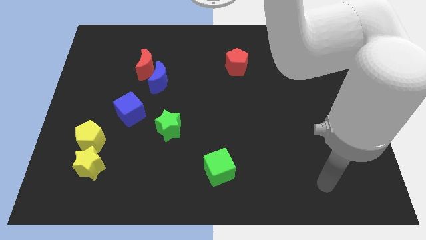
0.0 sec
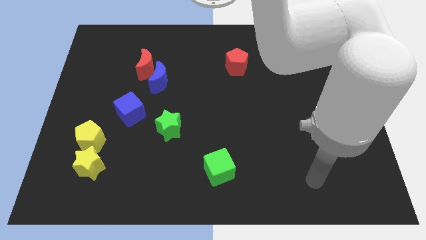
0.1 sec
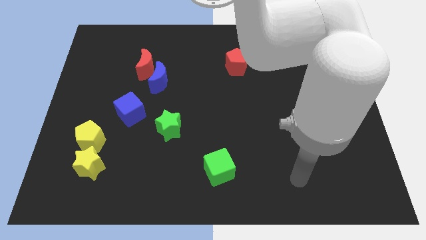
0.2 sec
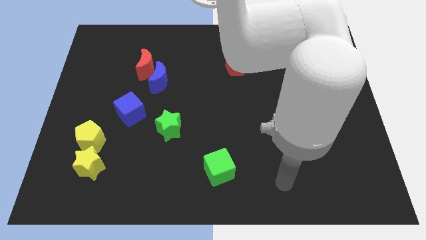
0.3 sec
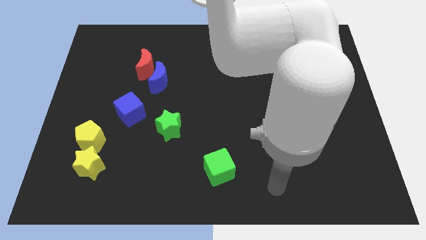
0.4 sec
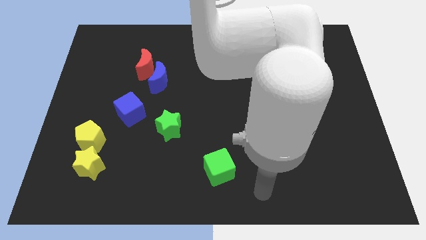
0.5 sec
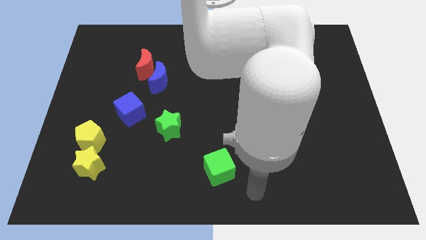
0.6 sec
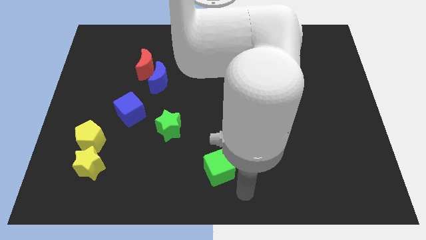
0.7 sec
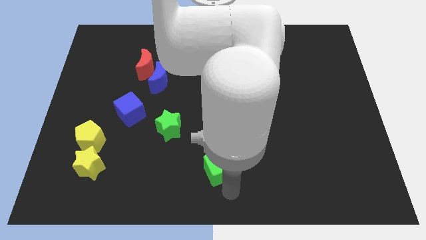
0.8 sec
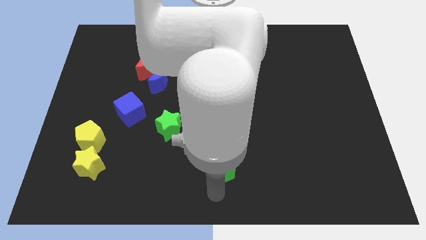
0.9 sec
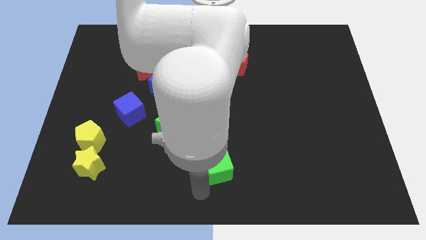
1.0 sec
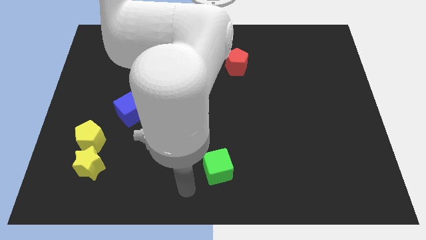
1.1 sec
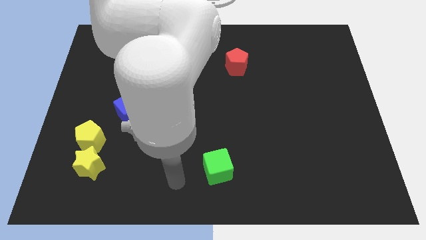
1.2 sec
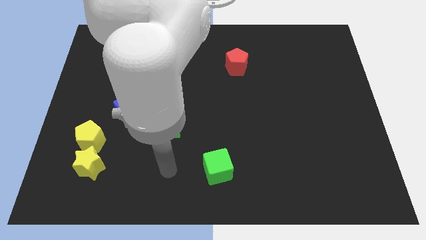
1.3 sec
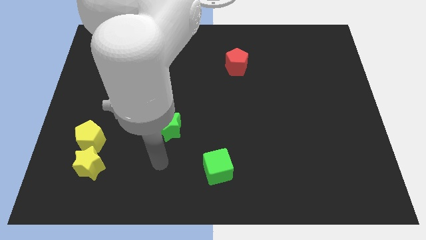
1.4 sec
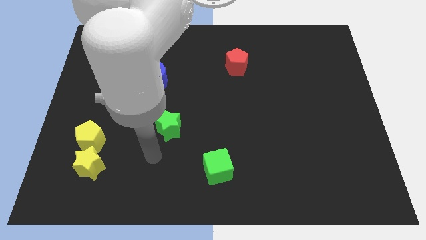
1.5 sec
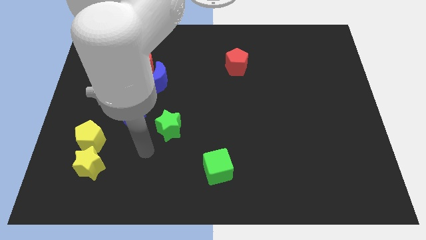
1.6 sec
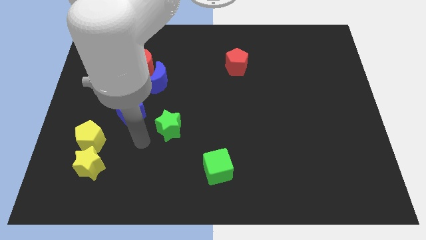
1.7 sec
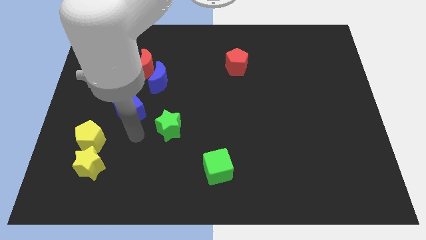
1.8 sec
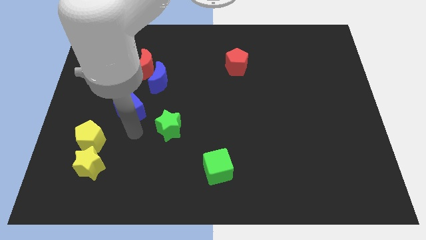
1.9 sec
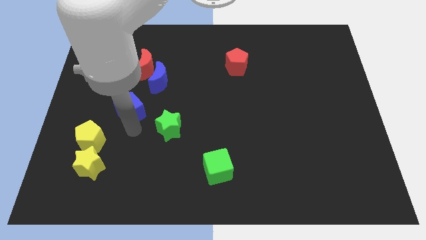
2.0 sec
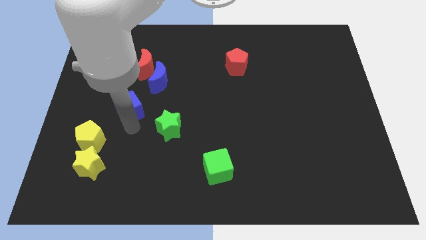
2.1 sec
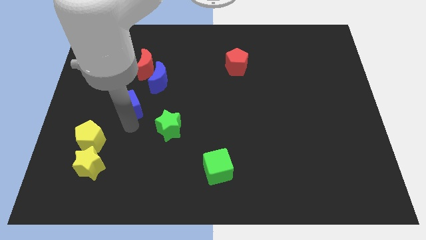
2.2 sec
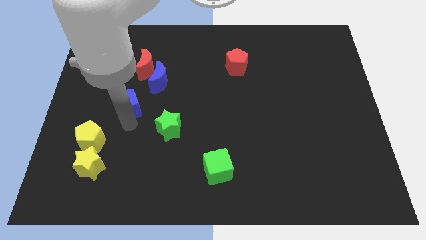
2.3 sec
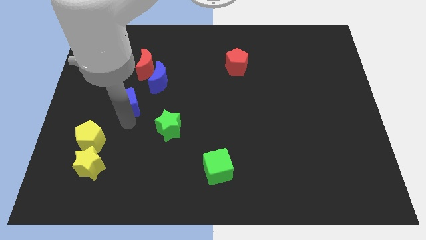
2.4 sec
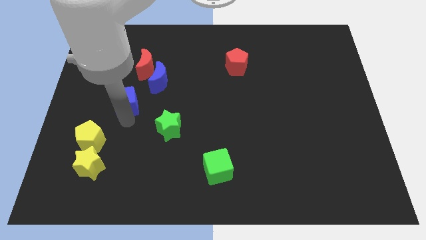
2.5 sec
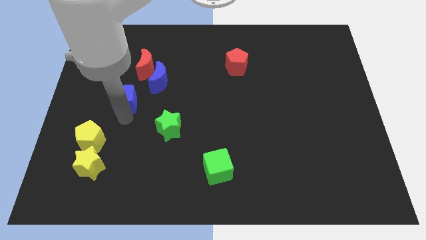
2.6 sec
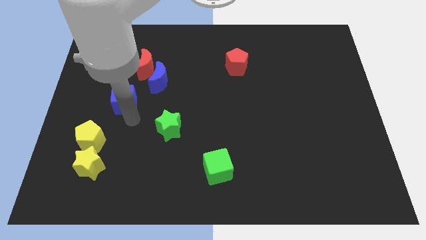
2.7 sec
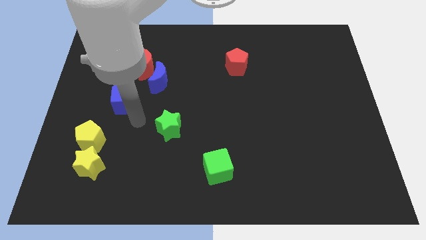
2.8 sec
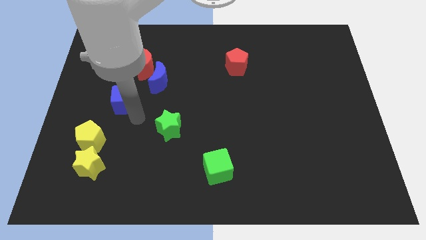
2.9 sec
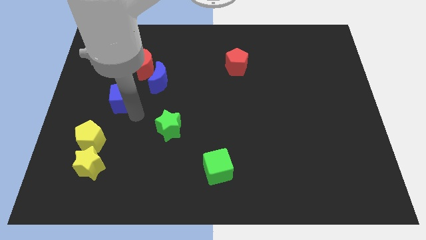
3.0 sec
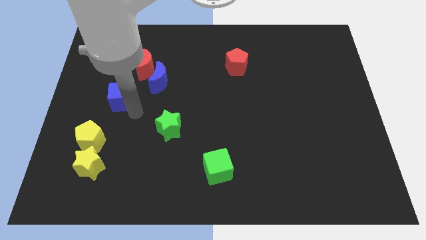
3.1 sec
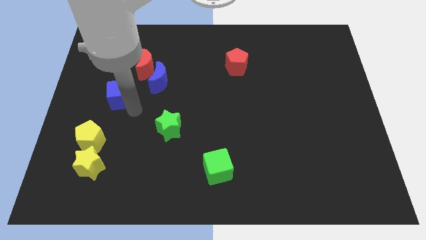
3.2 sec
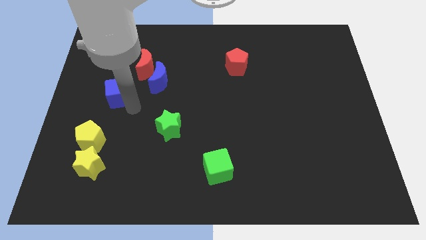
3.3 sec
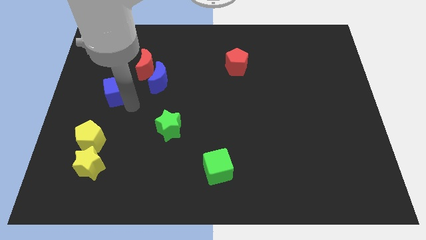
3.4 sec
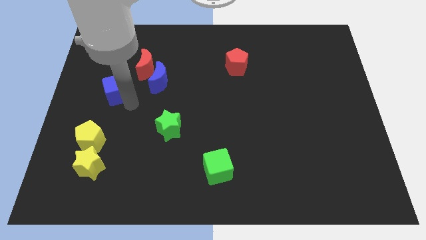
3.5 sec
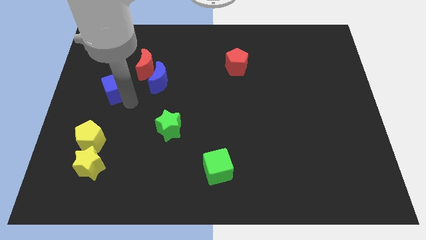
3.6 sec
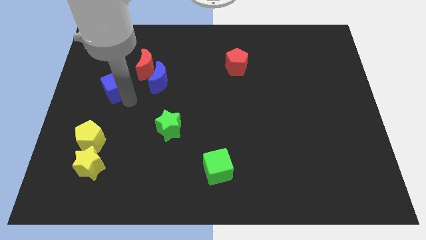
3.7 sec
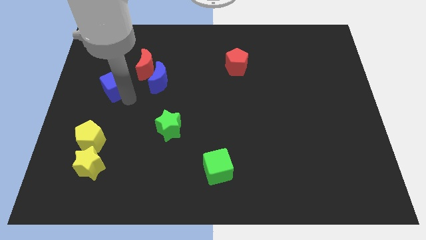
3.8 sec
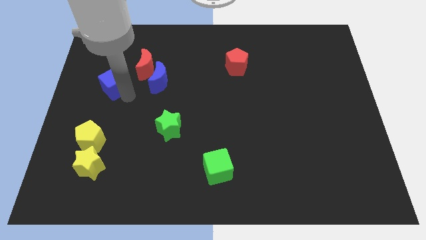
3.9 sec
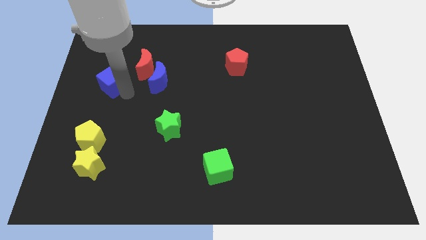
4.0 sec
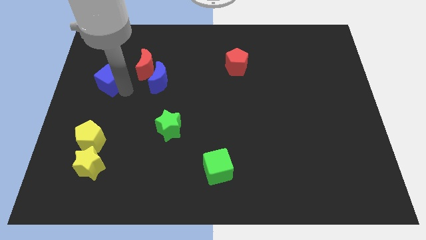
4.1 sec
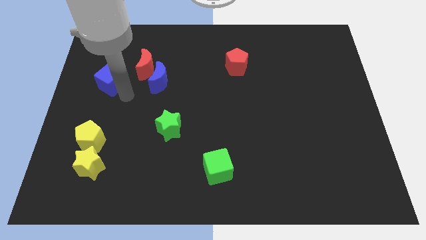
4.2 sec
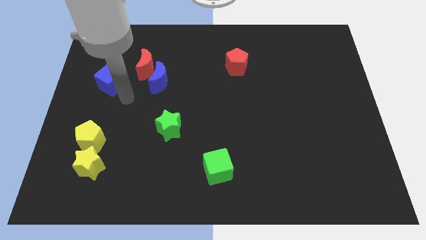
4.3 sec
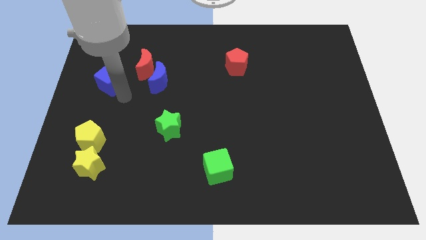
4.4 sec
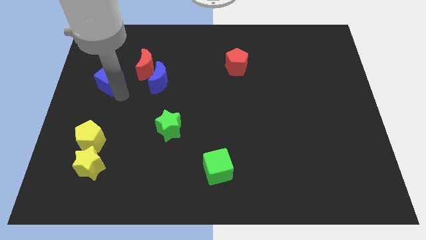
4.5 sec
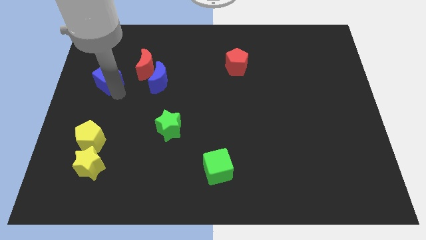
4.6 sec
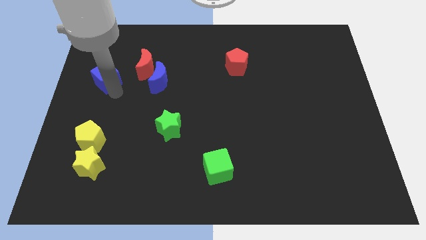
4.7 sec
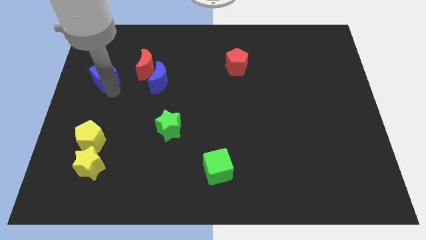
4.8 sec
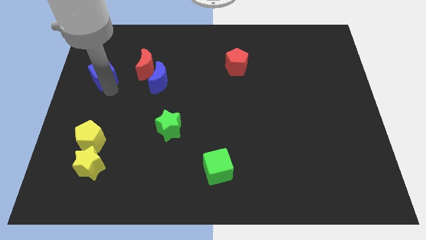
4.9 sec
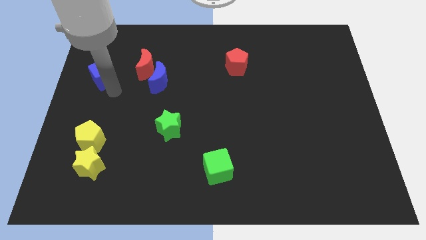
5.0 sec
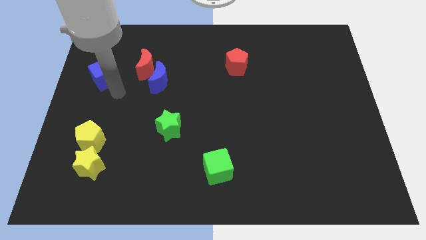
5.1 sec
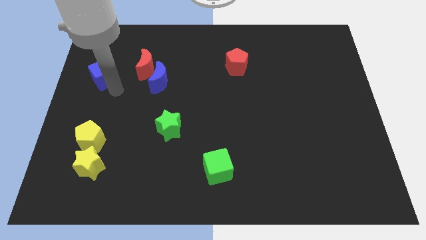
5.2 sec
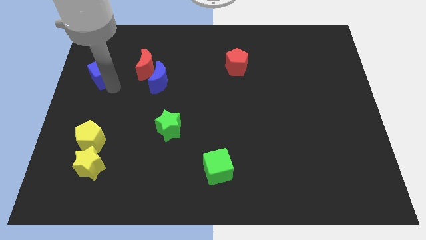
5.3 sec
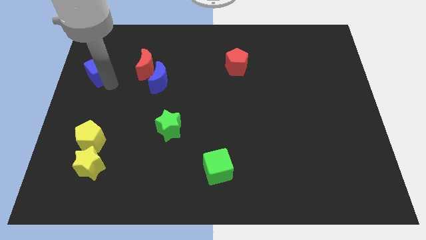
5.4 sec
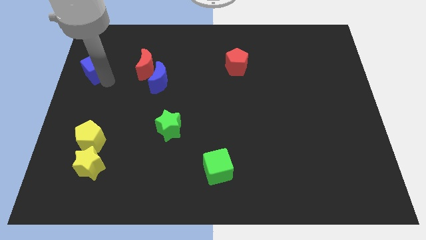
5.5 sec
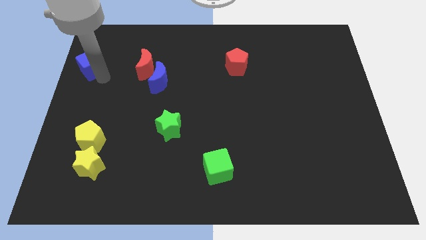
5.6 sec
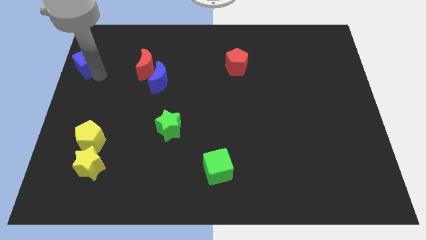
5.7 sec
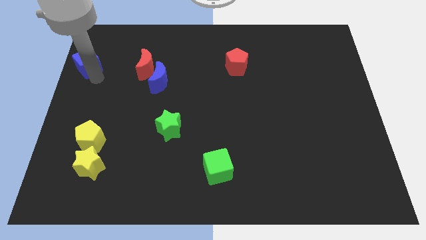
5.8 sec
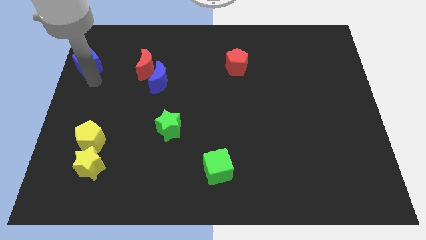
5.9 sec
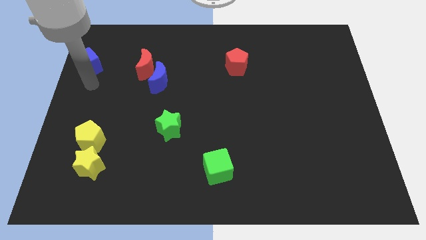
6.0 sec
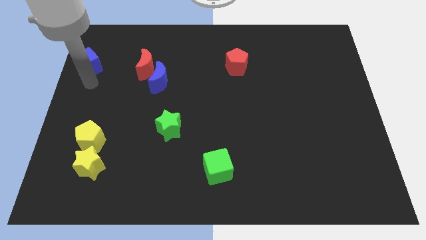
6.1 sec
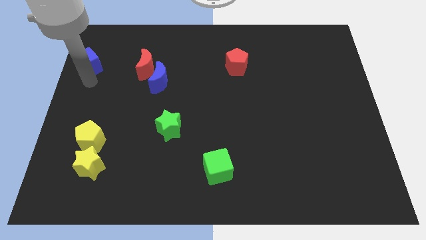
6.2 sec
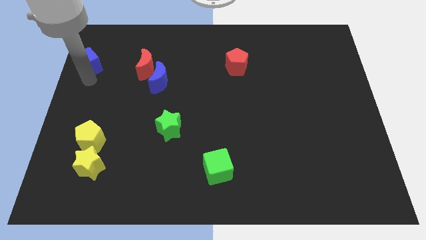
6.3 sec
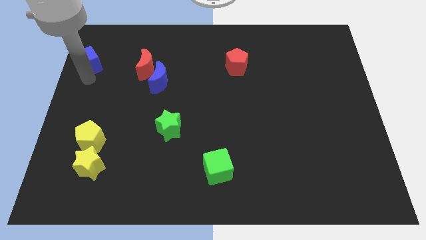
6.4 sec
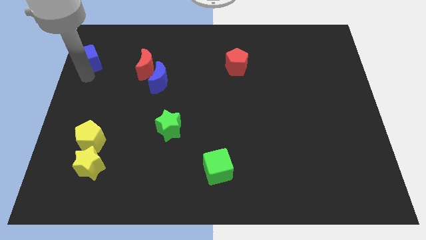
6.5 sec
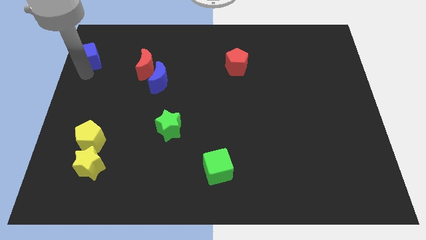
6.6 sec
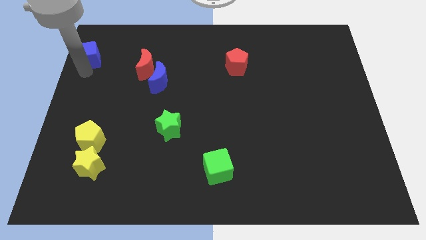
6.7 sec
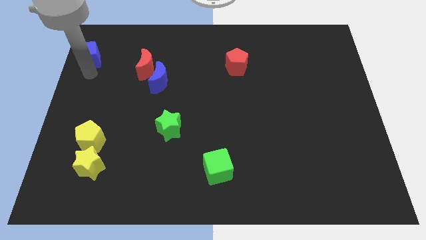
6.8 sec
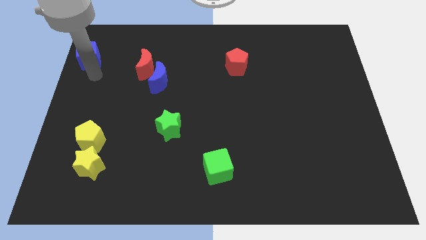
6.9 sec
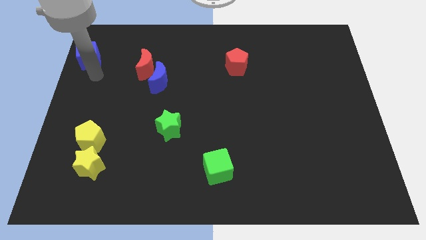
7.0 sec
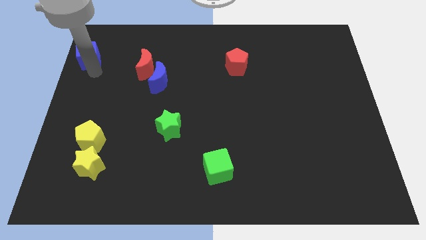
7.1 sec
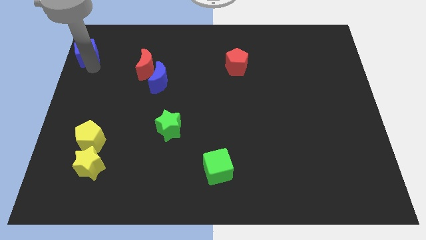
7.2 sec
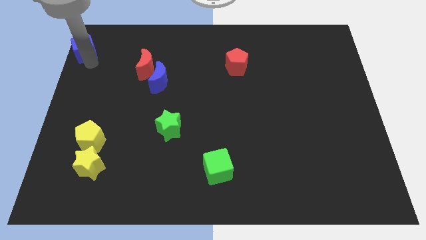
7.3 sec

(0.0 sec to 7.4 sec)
put the blue cube to the upper left corner
